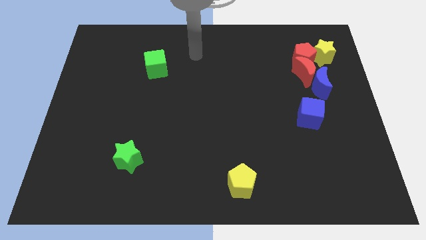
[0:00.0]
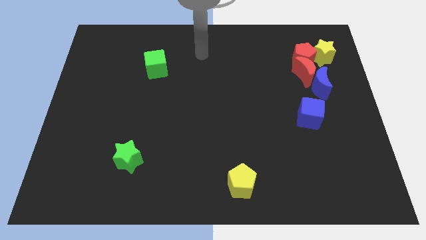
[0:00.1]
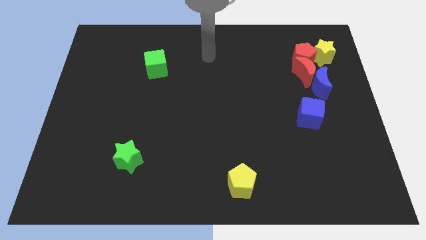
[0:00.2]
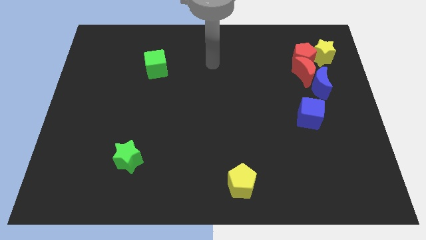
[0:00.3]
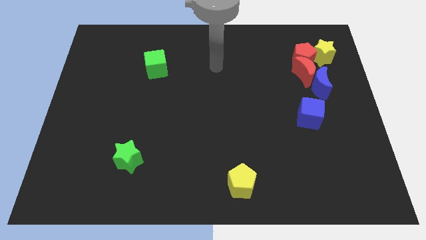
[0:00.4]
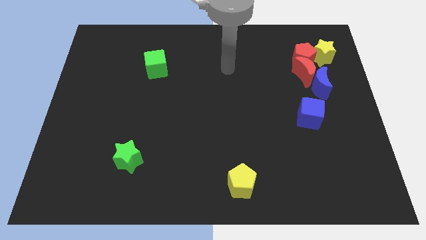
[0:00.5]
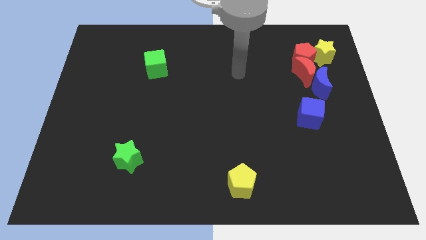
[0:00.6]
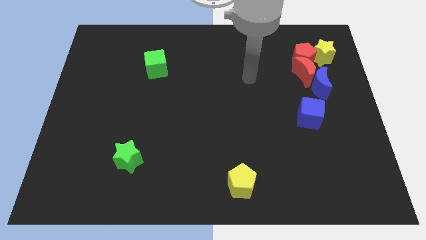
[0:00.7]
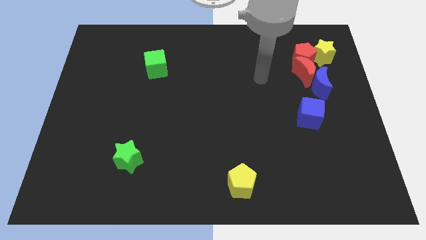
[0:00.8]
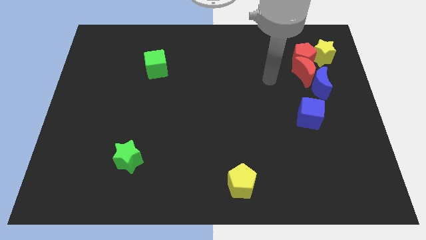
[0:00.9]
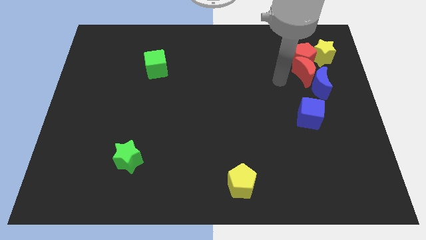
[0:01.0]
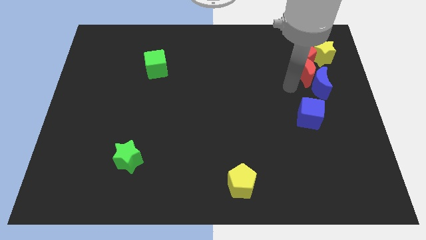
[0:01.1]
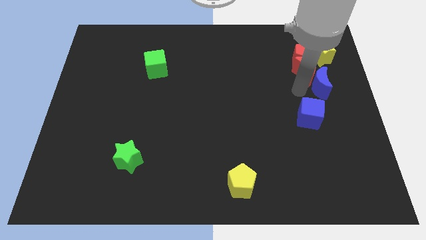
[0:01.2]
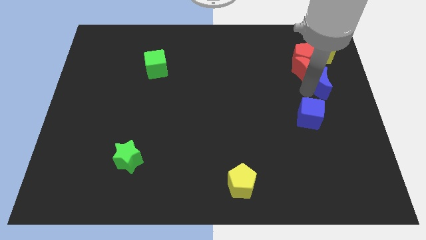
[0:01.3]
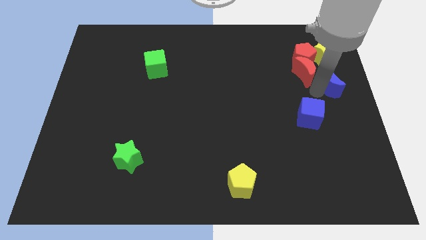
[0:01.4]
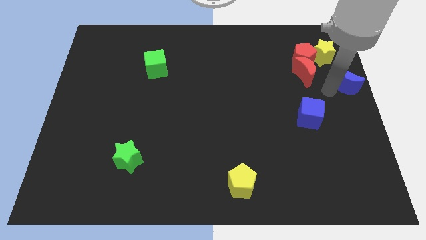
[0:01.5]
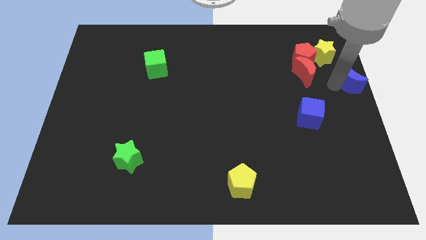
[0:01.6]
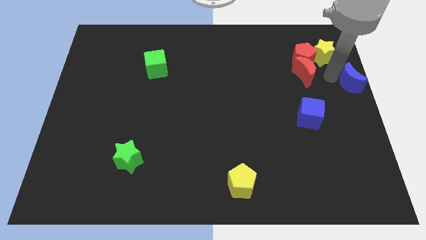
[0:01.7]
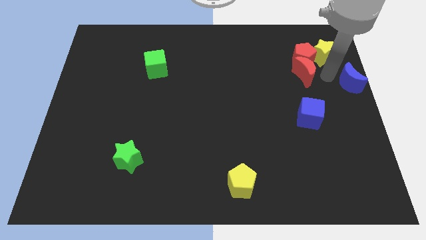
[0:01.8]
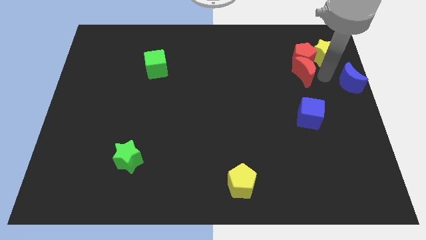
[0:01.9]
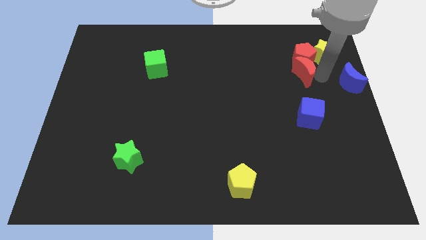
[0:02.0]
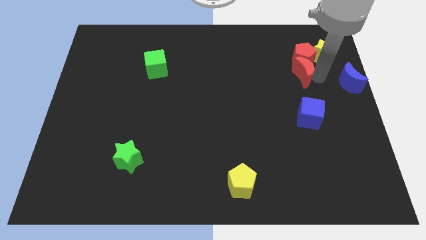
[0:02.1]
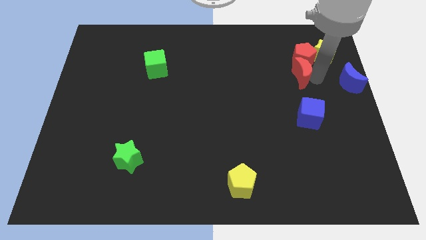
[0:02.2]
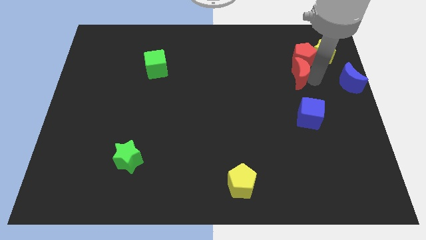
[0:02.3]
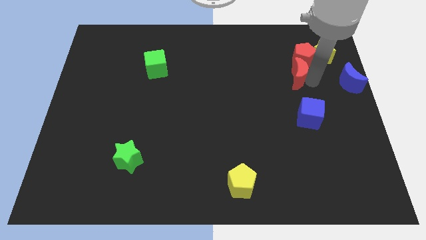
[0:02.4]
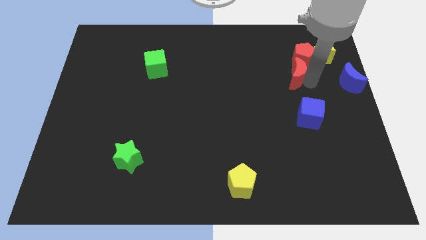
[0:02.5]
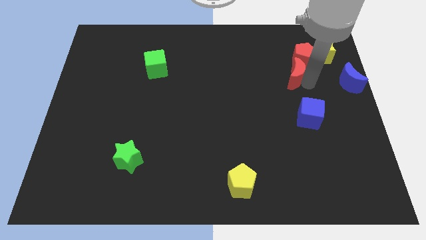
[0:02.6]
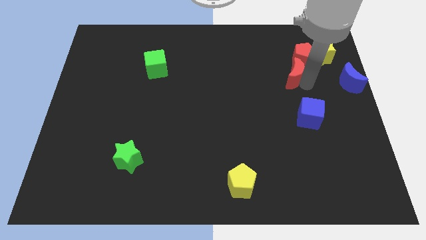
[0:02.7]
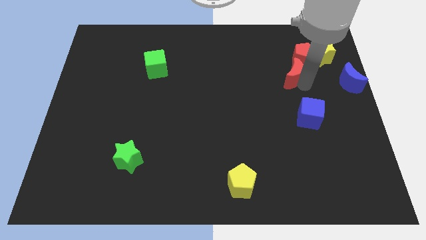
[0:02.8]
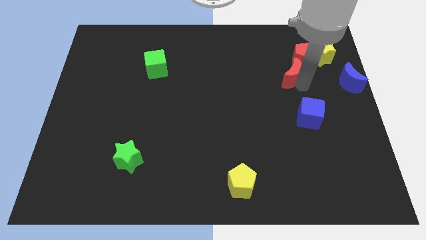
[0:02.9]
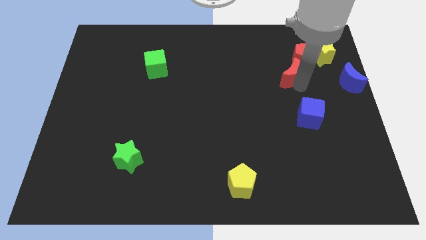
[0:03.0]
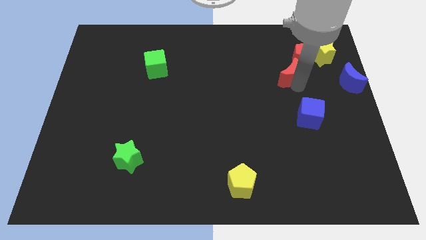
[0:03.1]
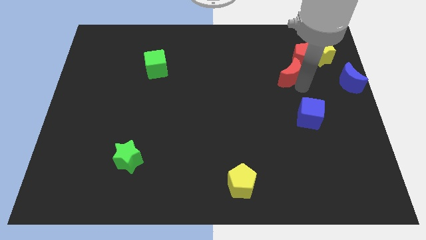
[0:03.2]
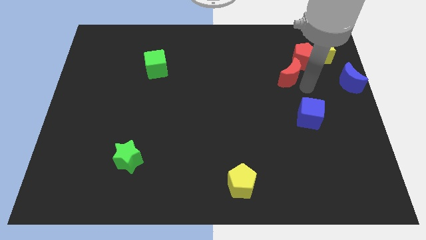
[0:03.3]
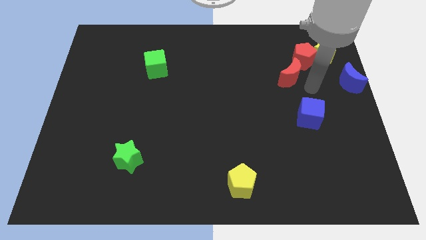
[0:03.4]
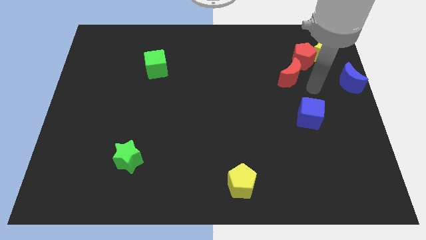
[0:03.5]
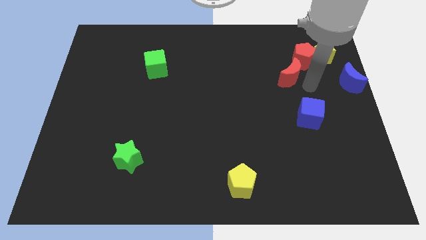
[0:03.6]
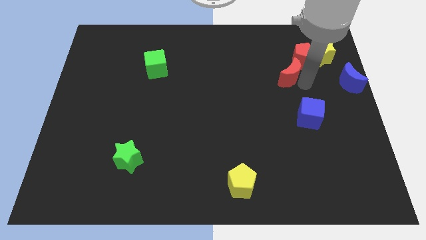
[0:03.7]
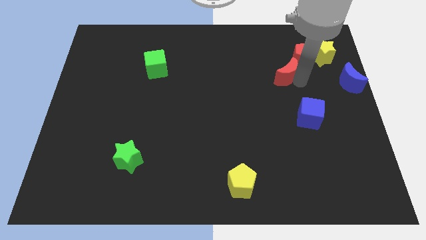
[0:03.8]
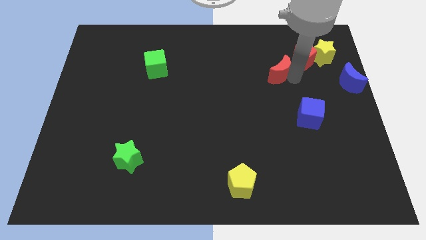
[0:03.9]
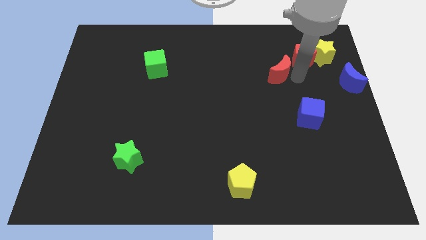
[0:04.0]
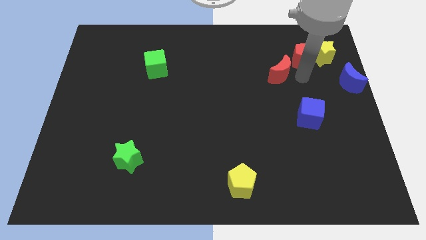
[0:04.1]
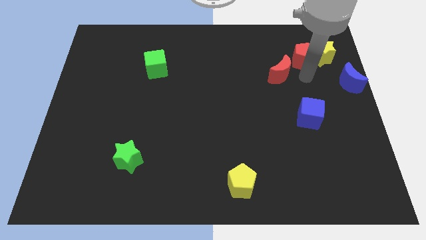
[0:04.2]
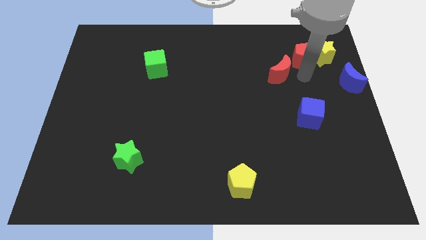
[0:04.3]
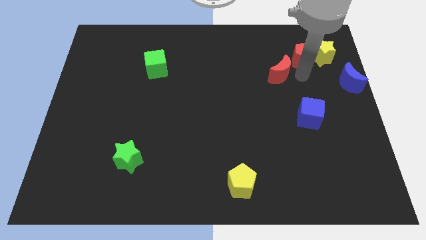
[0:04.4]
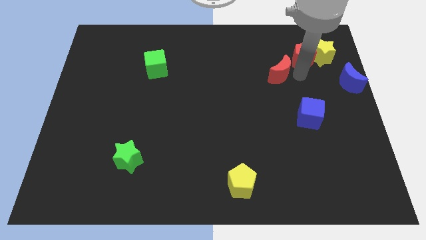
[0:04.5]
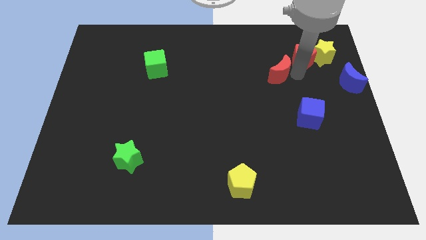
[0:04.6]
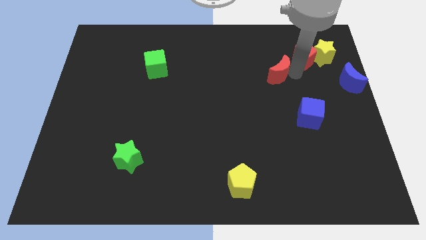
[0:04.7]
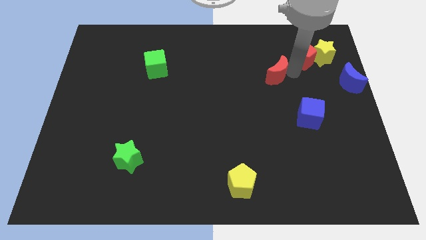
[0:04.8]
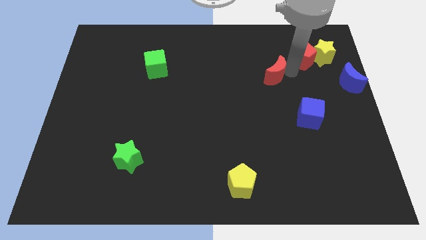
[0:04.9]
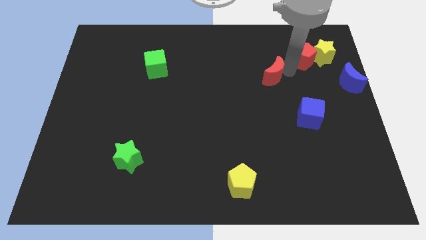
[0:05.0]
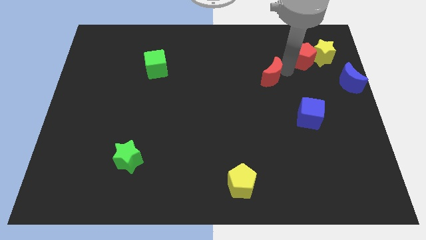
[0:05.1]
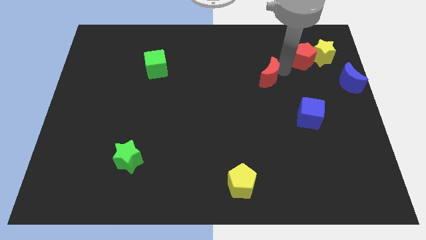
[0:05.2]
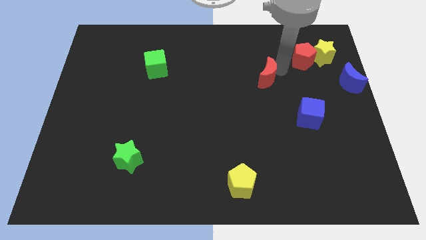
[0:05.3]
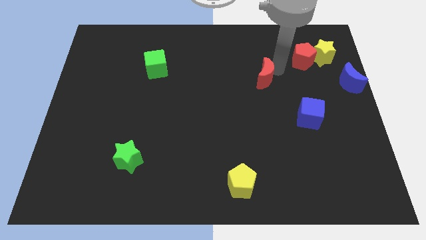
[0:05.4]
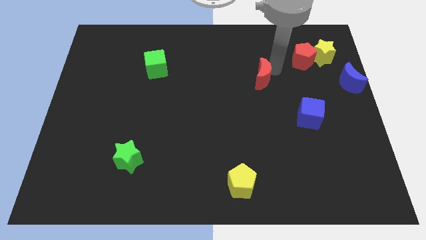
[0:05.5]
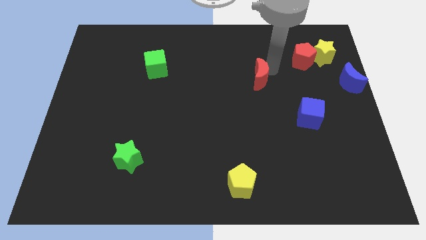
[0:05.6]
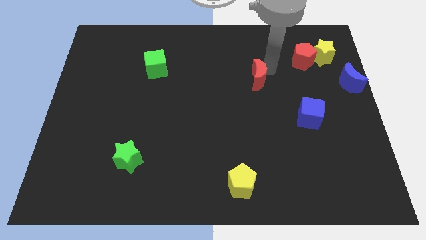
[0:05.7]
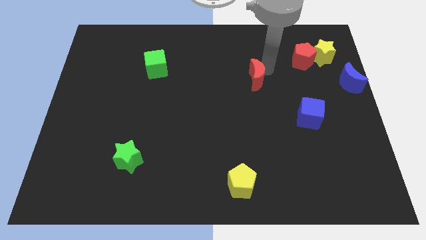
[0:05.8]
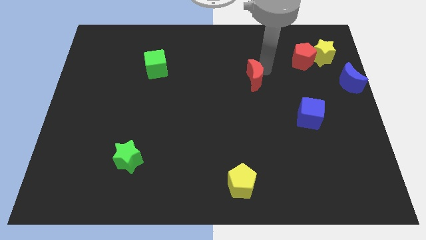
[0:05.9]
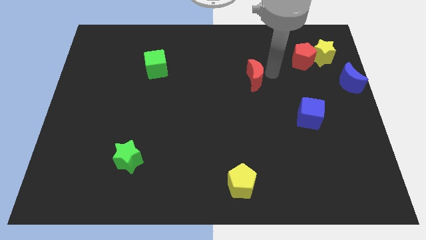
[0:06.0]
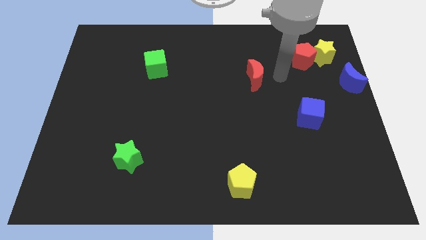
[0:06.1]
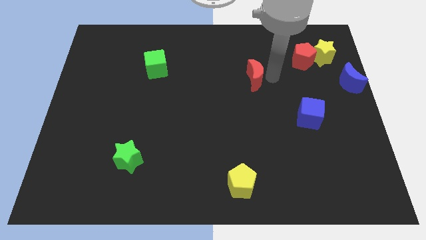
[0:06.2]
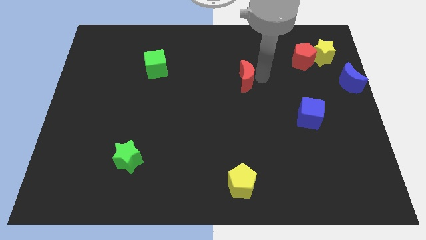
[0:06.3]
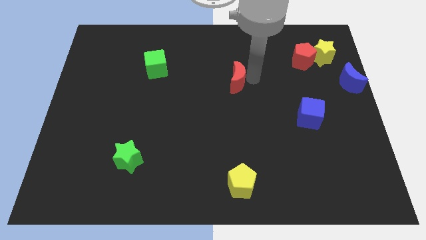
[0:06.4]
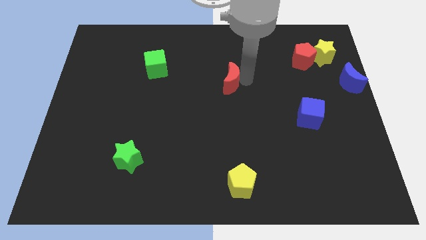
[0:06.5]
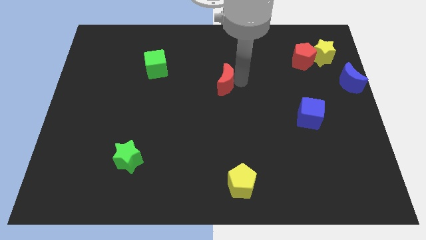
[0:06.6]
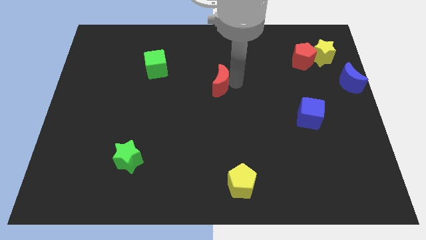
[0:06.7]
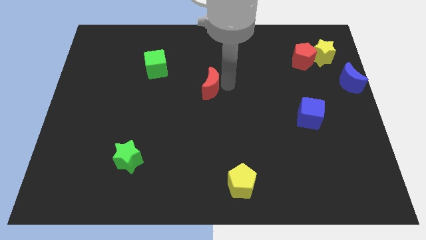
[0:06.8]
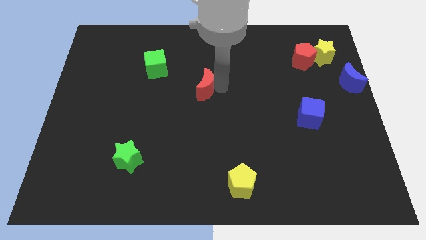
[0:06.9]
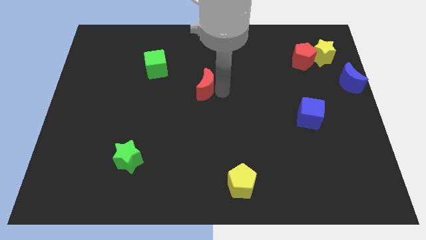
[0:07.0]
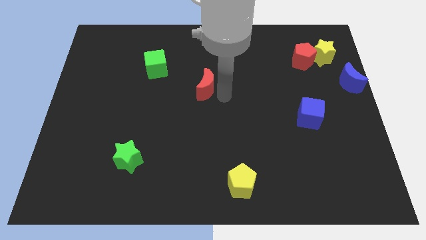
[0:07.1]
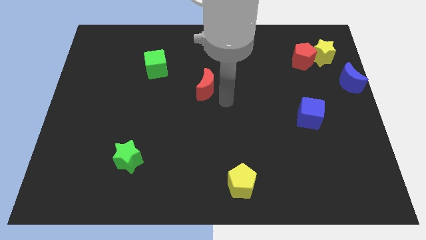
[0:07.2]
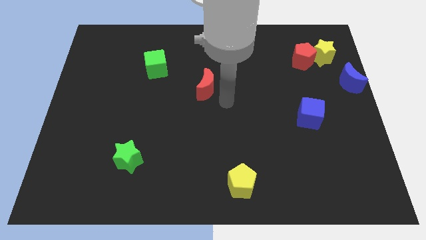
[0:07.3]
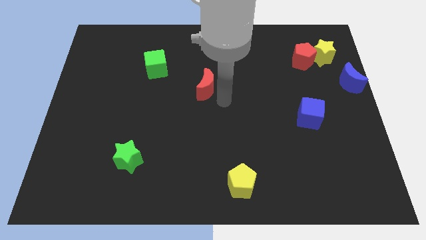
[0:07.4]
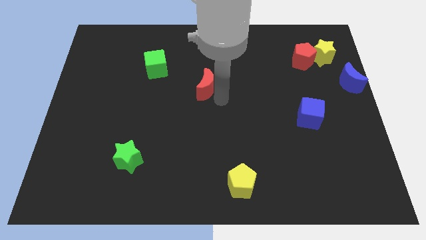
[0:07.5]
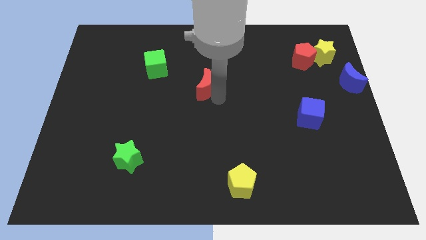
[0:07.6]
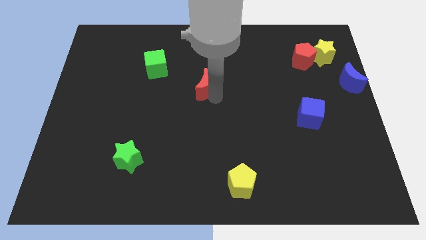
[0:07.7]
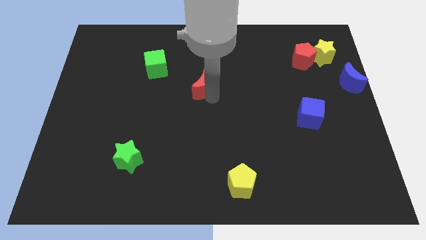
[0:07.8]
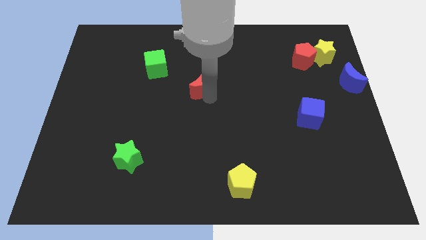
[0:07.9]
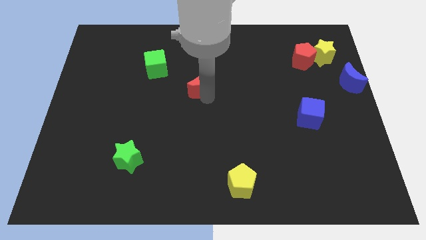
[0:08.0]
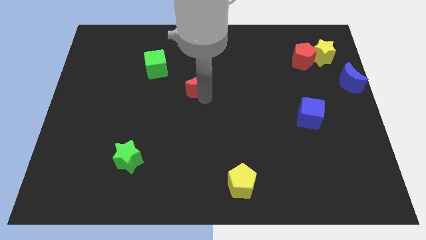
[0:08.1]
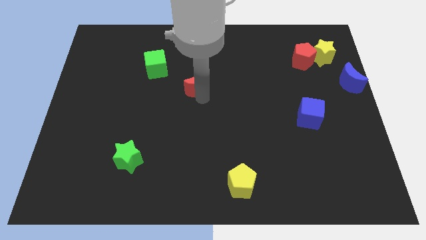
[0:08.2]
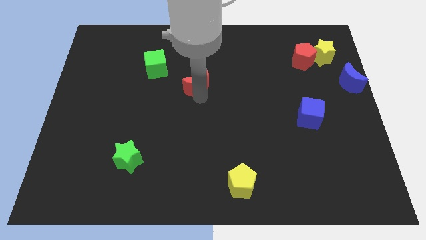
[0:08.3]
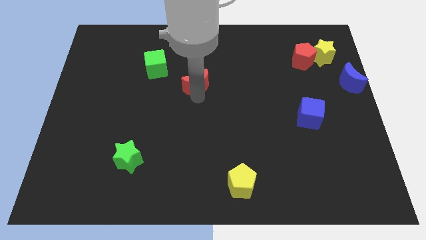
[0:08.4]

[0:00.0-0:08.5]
slide the red moon to the bottom right of the green cube
